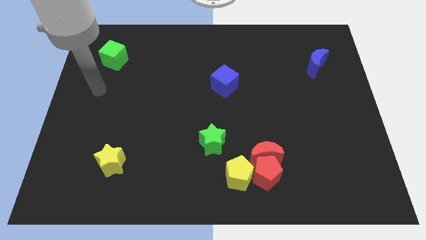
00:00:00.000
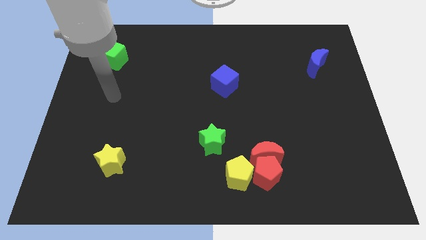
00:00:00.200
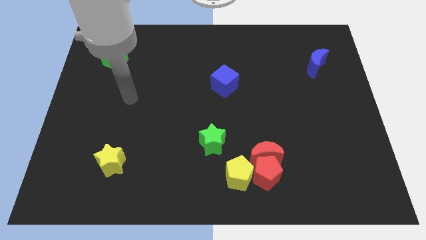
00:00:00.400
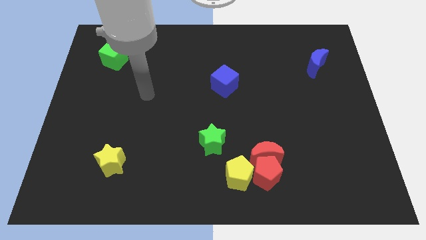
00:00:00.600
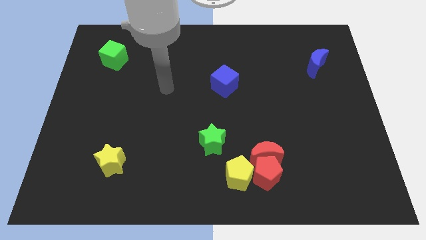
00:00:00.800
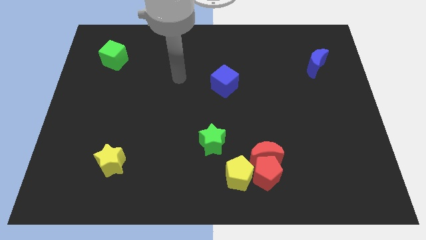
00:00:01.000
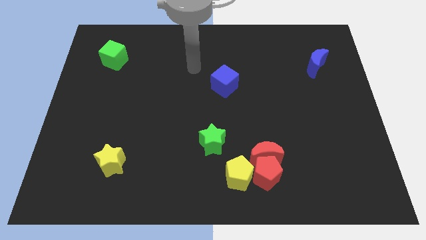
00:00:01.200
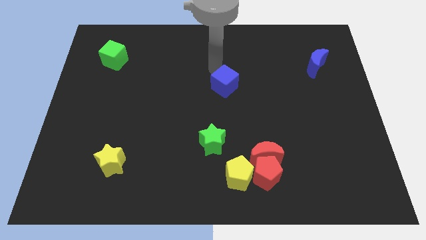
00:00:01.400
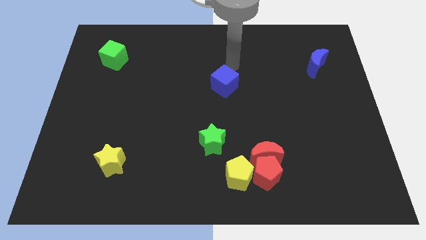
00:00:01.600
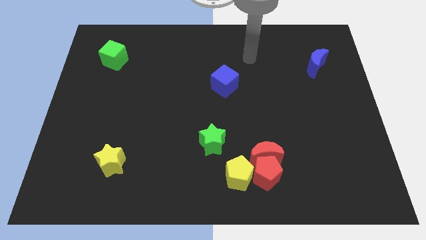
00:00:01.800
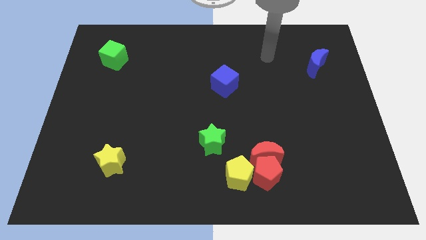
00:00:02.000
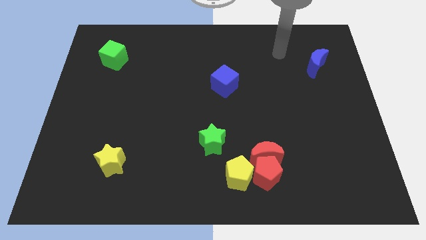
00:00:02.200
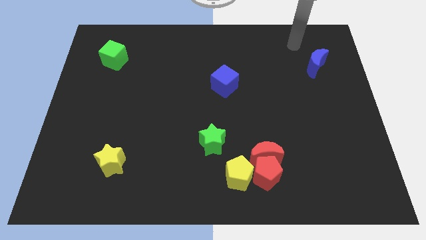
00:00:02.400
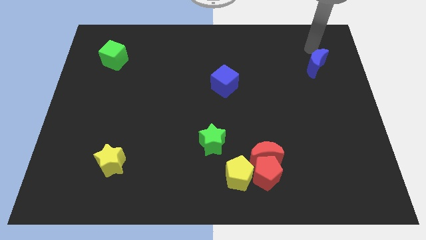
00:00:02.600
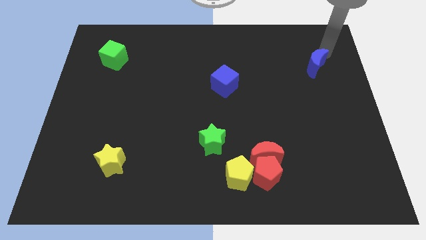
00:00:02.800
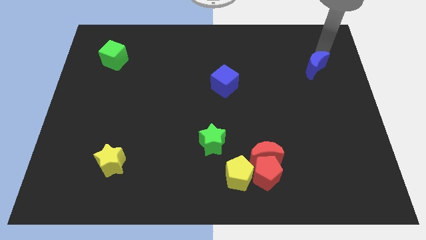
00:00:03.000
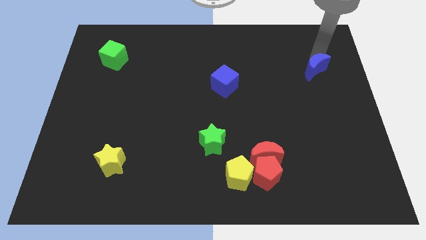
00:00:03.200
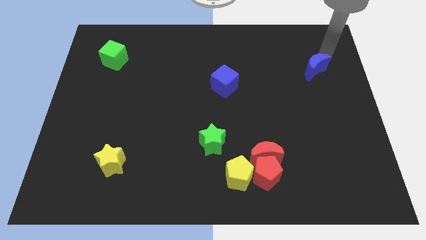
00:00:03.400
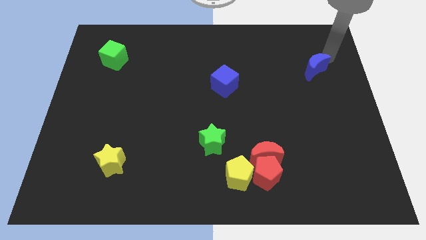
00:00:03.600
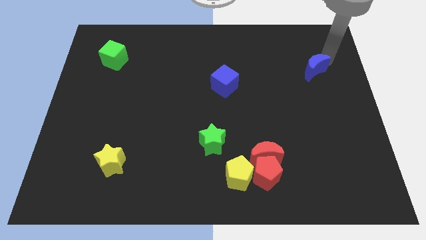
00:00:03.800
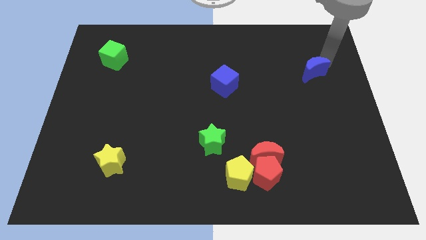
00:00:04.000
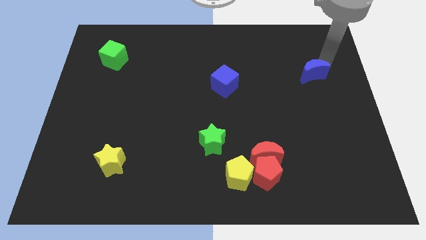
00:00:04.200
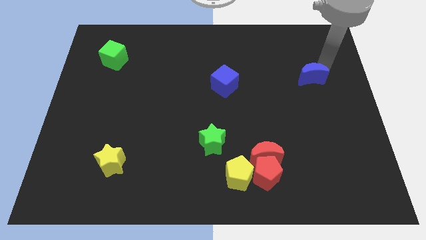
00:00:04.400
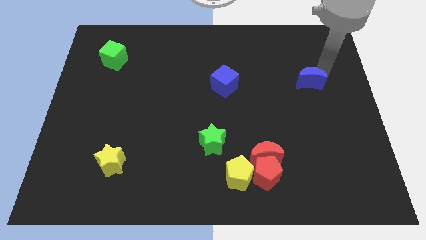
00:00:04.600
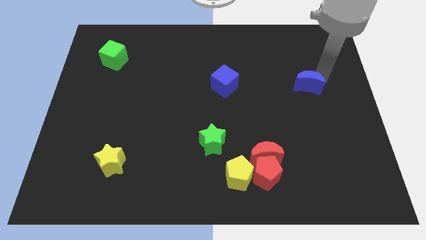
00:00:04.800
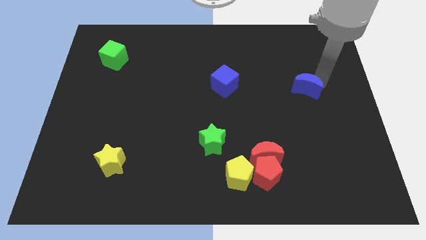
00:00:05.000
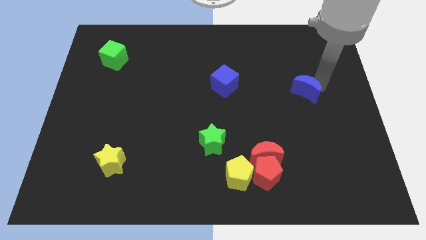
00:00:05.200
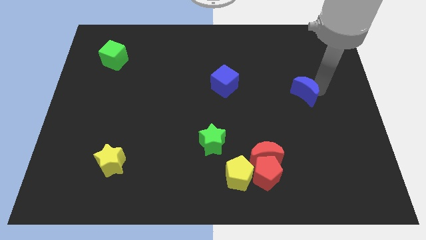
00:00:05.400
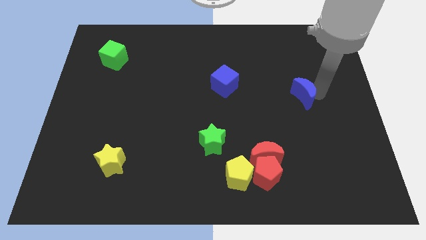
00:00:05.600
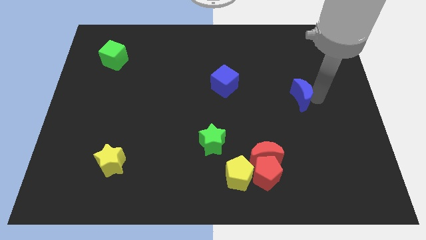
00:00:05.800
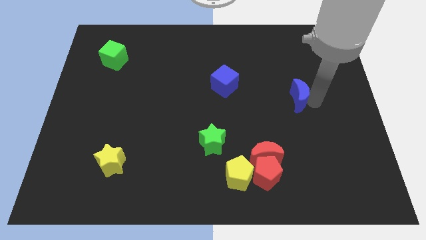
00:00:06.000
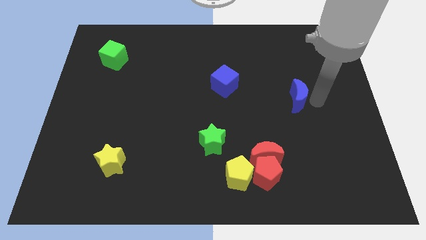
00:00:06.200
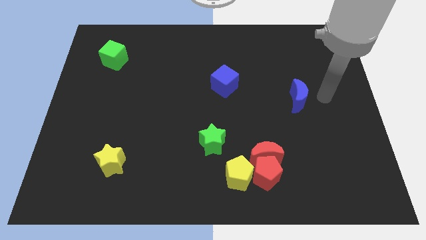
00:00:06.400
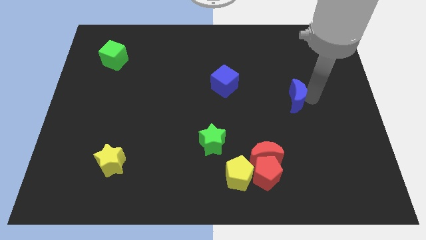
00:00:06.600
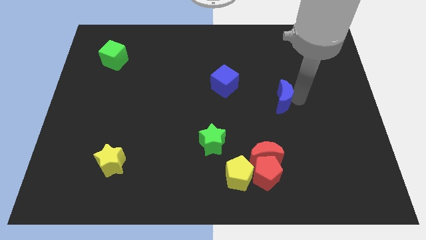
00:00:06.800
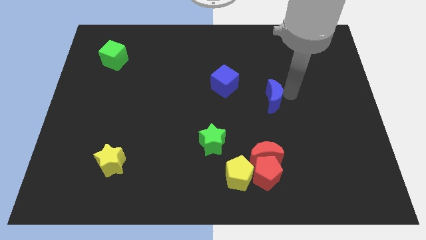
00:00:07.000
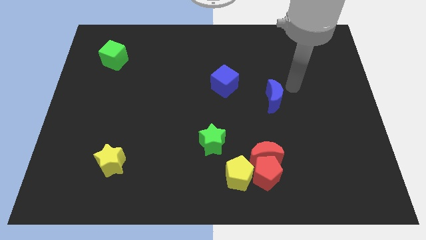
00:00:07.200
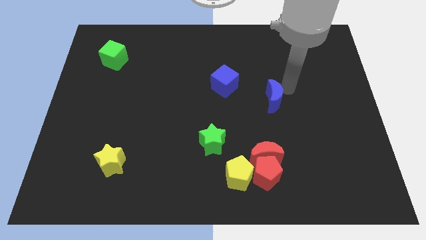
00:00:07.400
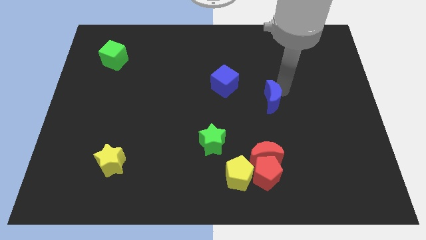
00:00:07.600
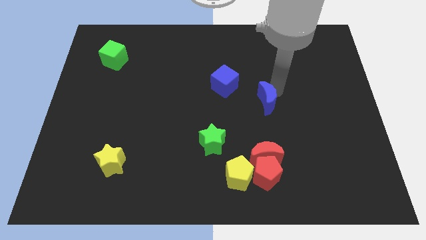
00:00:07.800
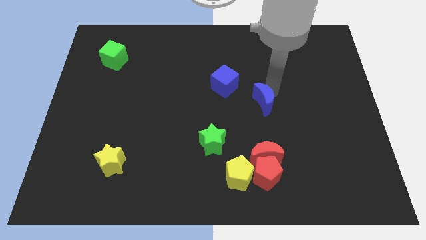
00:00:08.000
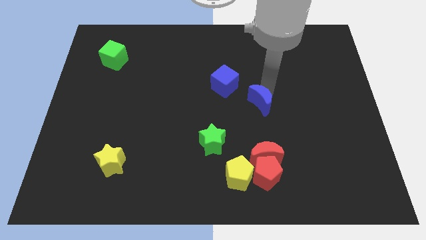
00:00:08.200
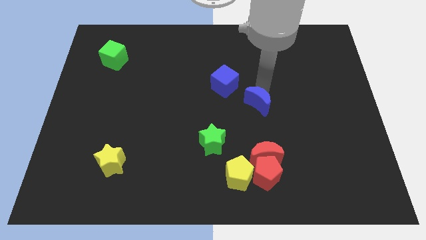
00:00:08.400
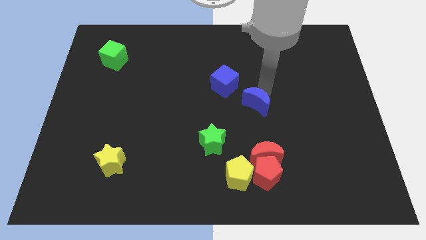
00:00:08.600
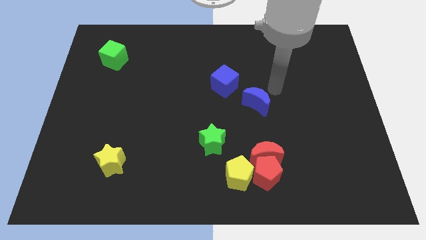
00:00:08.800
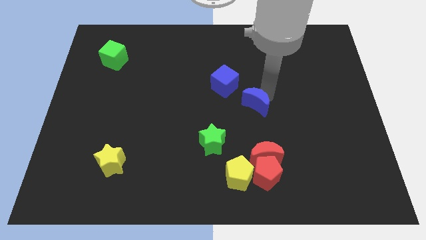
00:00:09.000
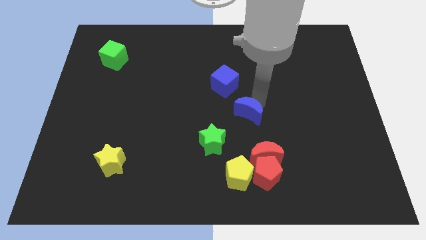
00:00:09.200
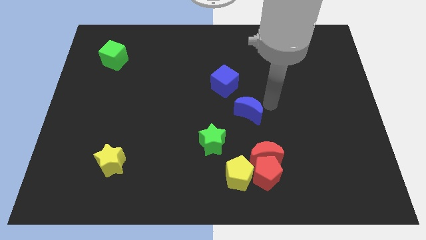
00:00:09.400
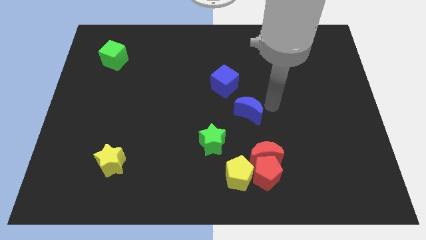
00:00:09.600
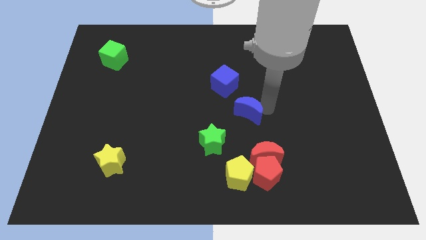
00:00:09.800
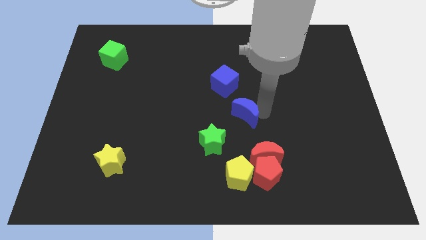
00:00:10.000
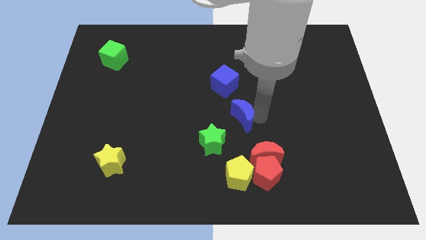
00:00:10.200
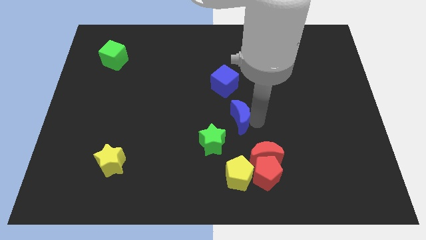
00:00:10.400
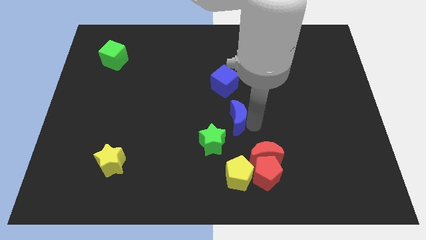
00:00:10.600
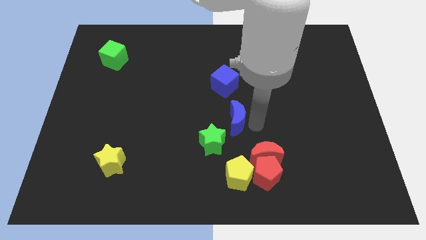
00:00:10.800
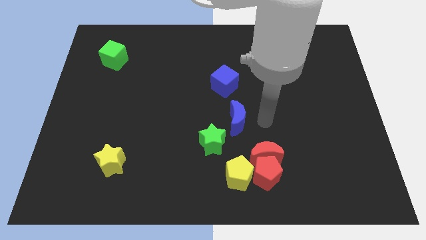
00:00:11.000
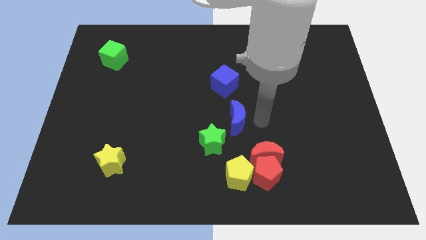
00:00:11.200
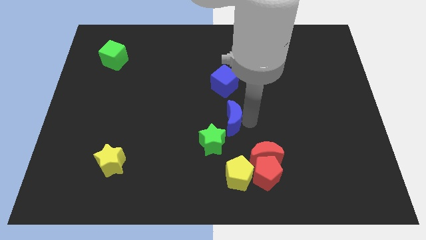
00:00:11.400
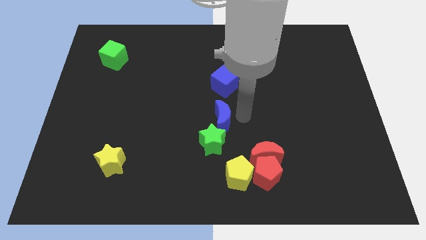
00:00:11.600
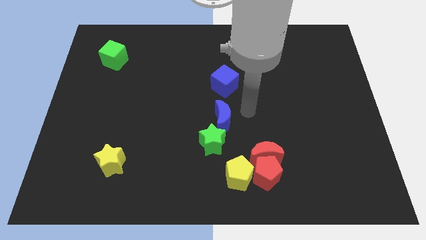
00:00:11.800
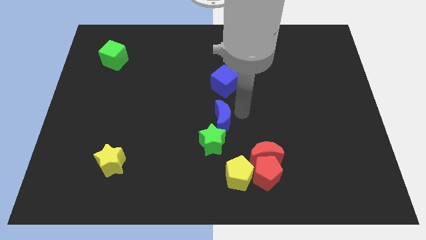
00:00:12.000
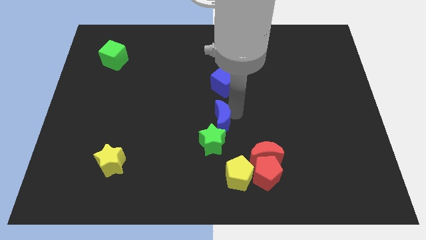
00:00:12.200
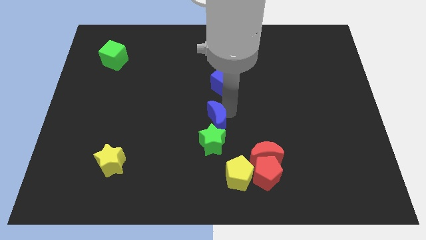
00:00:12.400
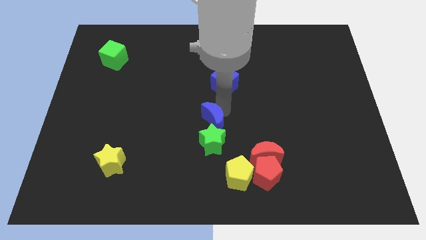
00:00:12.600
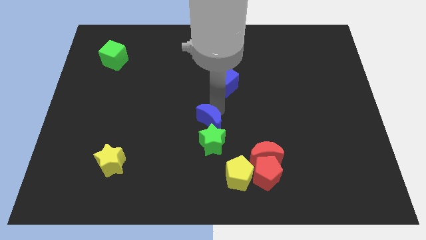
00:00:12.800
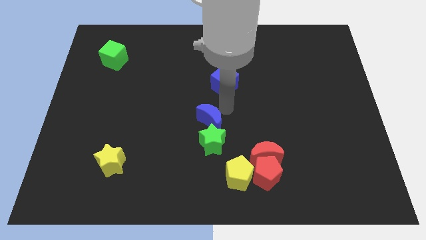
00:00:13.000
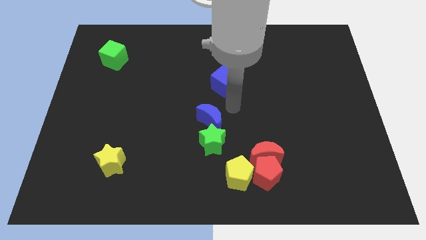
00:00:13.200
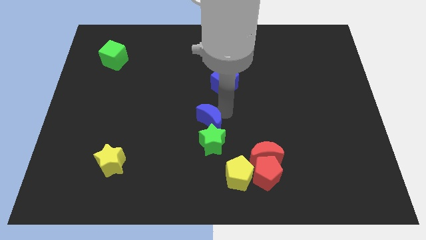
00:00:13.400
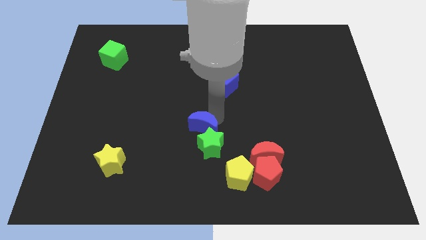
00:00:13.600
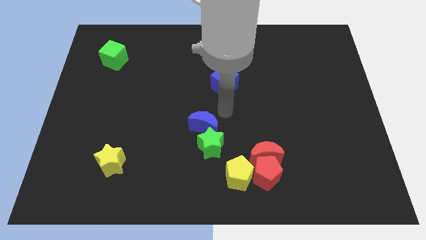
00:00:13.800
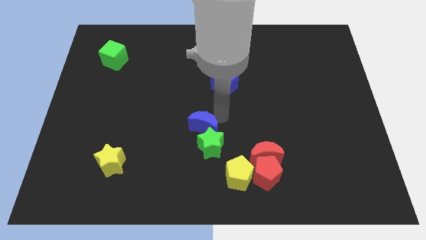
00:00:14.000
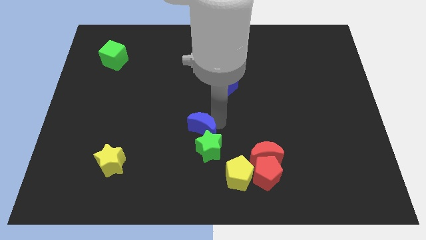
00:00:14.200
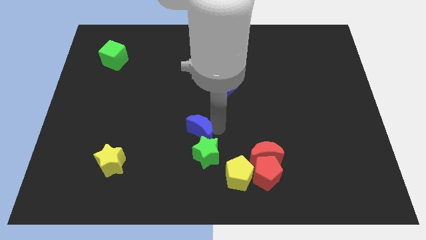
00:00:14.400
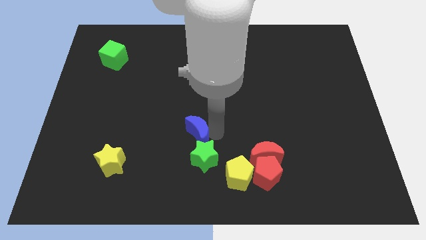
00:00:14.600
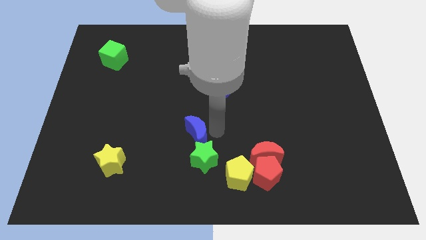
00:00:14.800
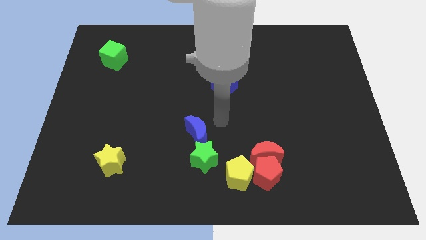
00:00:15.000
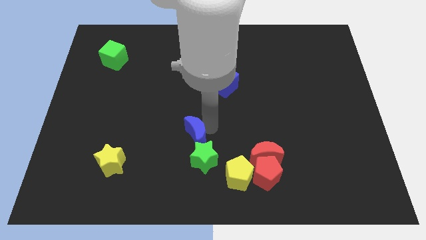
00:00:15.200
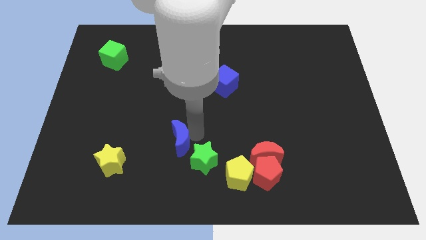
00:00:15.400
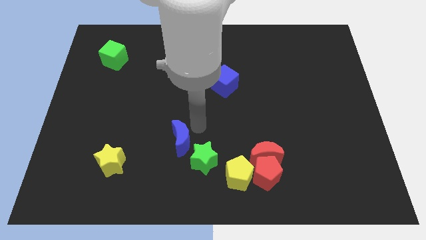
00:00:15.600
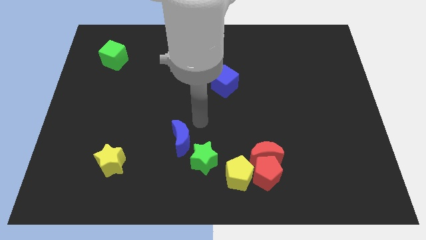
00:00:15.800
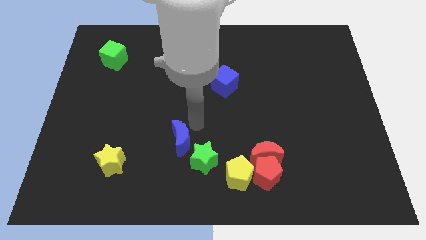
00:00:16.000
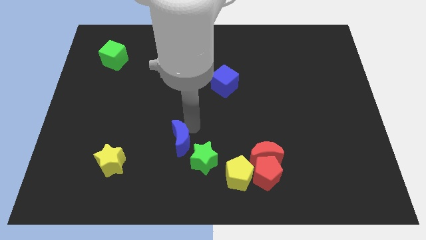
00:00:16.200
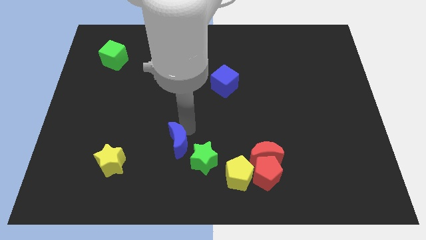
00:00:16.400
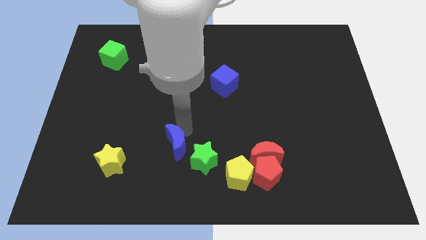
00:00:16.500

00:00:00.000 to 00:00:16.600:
slide the blue moon right of the yellow star
